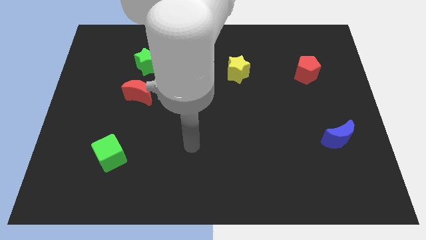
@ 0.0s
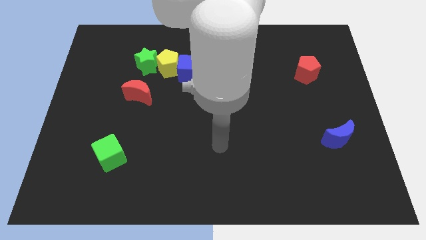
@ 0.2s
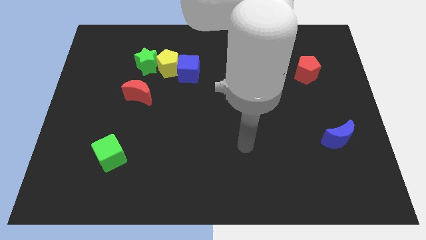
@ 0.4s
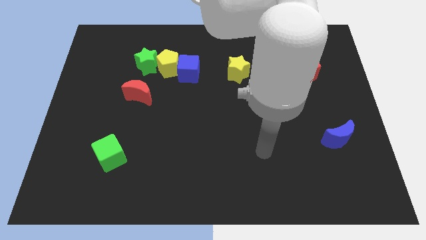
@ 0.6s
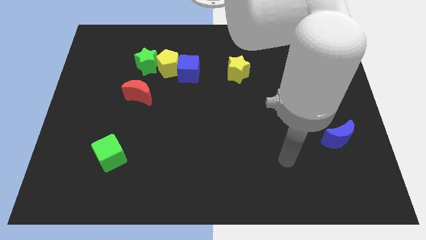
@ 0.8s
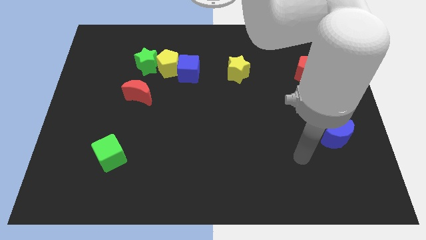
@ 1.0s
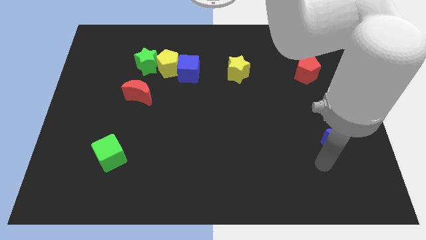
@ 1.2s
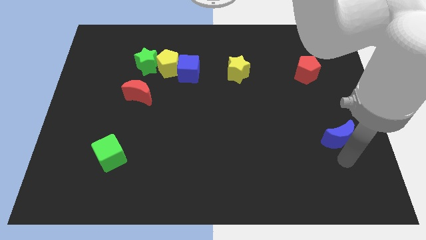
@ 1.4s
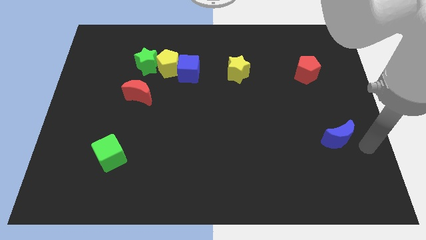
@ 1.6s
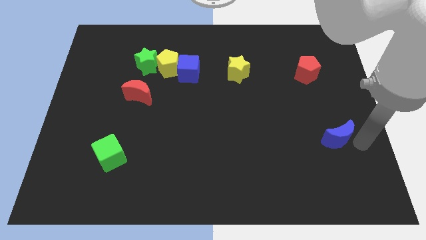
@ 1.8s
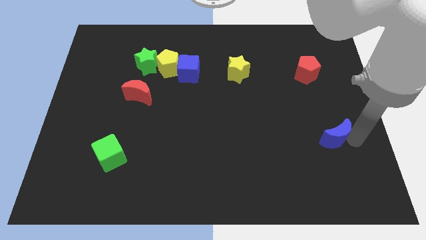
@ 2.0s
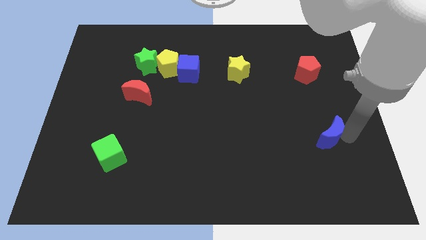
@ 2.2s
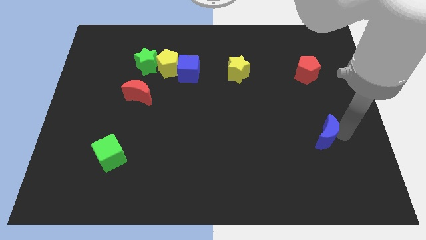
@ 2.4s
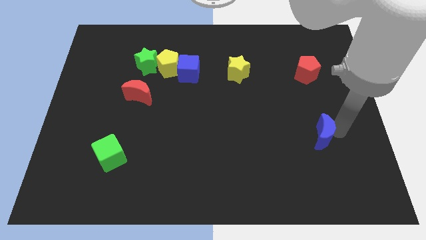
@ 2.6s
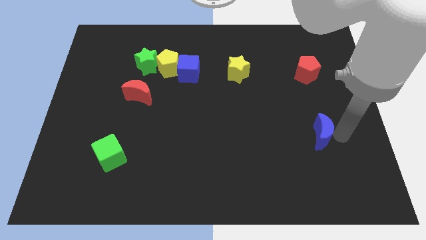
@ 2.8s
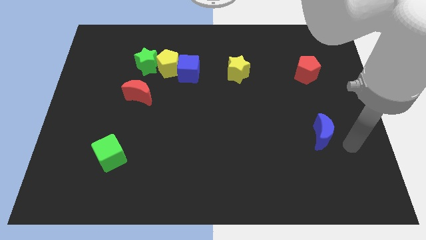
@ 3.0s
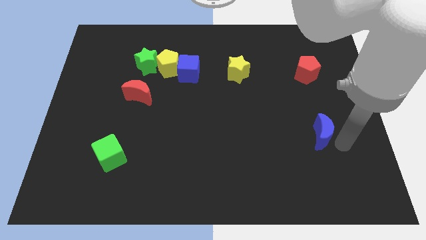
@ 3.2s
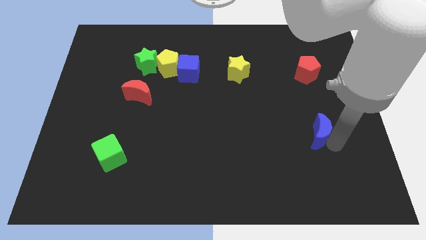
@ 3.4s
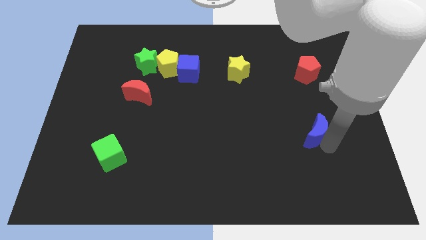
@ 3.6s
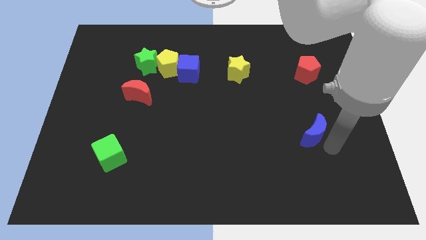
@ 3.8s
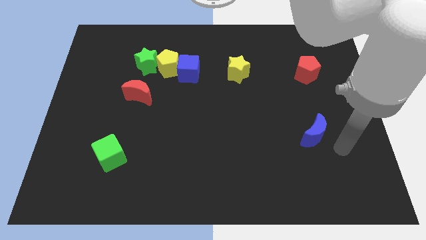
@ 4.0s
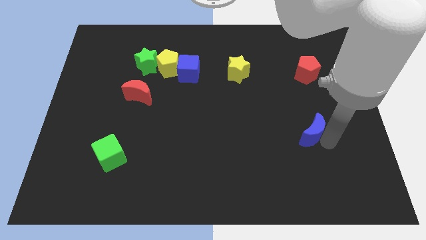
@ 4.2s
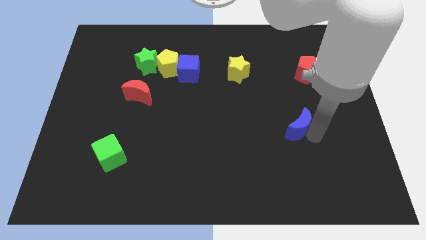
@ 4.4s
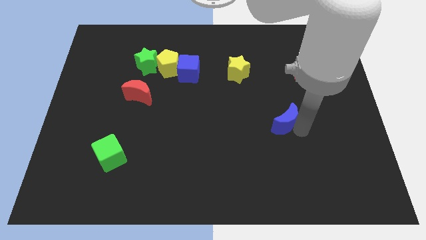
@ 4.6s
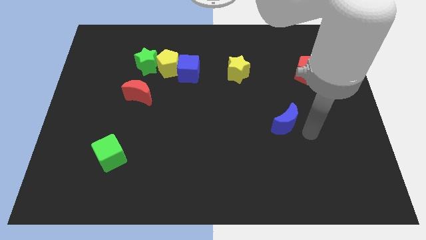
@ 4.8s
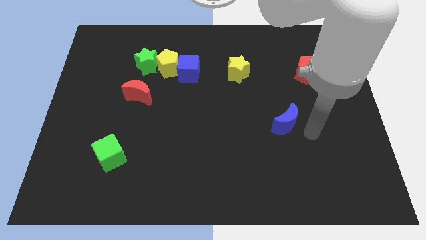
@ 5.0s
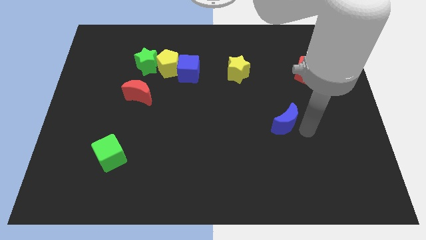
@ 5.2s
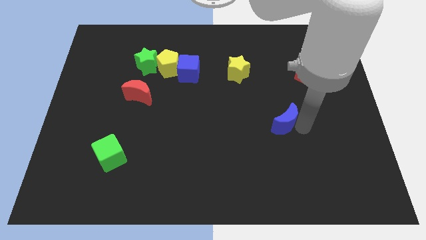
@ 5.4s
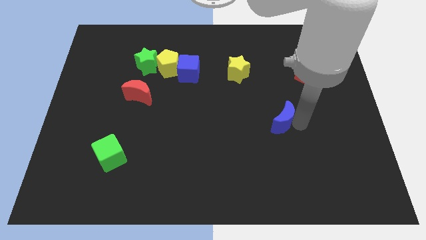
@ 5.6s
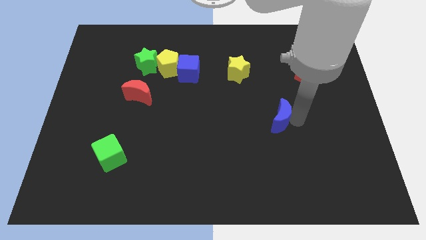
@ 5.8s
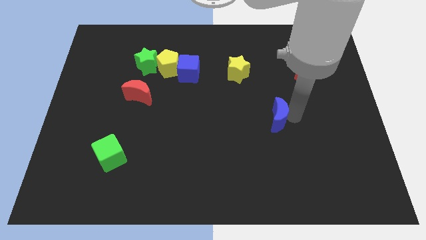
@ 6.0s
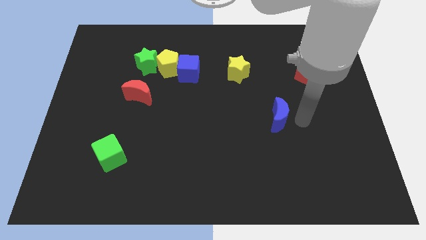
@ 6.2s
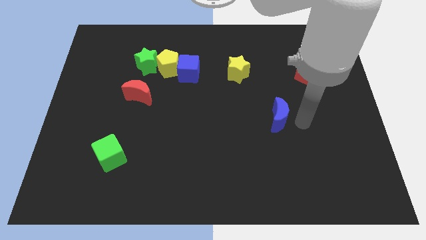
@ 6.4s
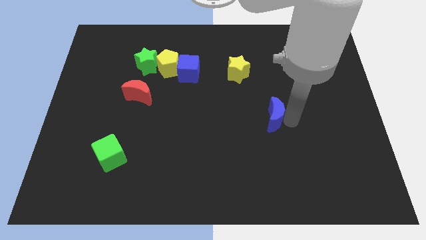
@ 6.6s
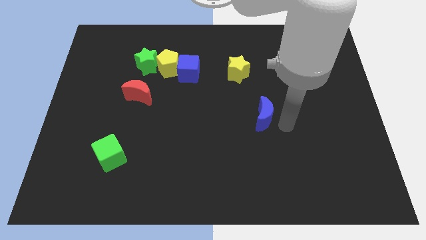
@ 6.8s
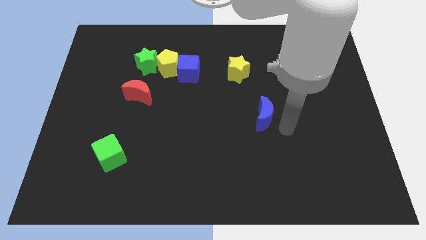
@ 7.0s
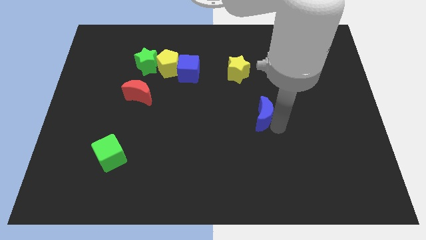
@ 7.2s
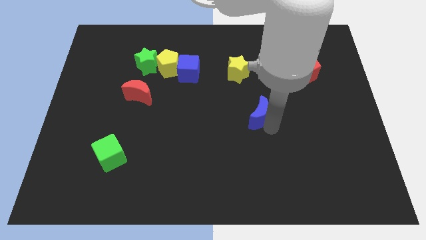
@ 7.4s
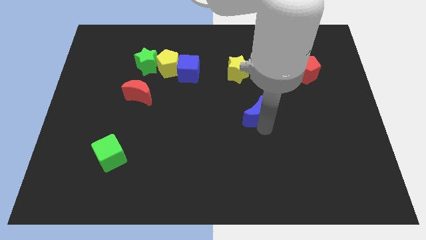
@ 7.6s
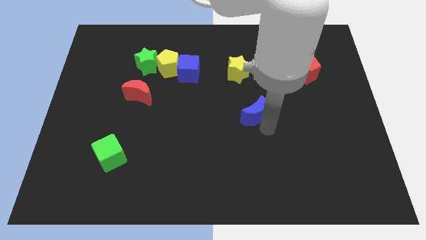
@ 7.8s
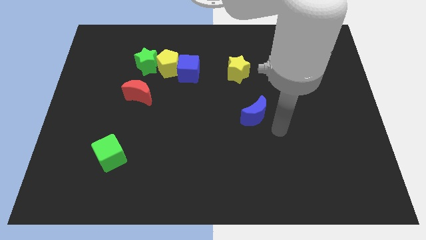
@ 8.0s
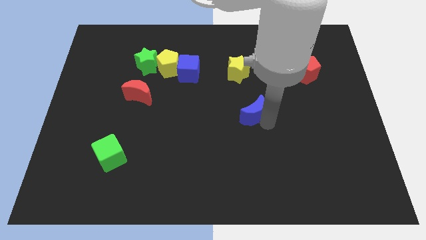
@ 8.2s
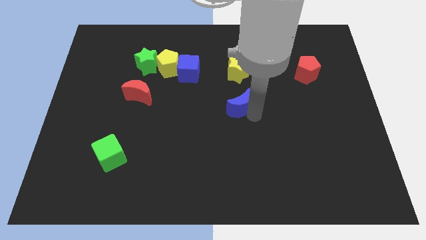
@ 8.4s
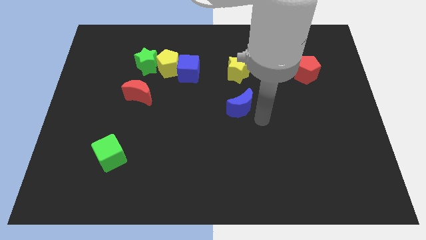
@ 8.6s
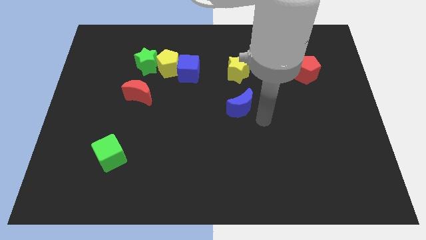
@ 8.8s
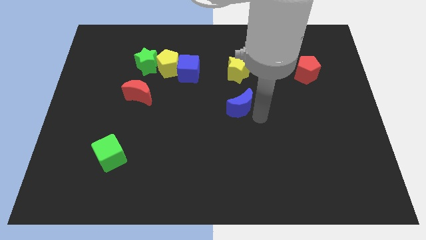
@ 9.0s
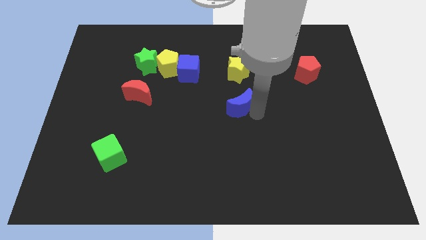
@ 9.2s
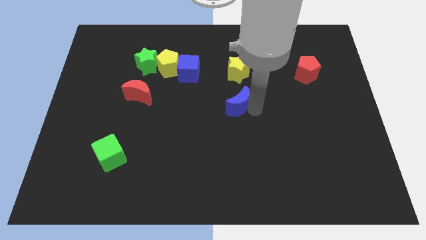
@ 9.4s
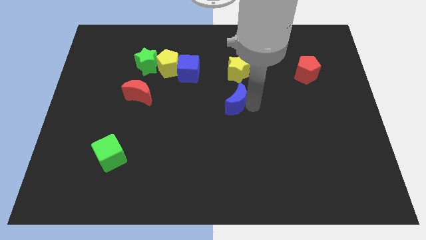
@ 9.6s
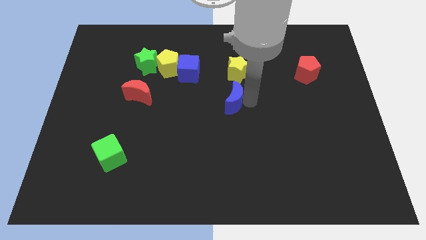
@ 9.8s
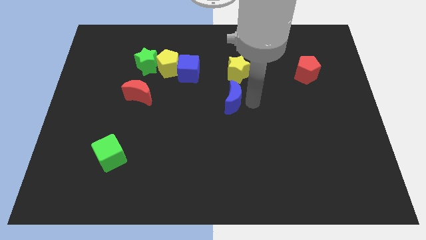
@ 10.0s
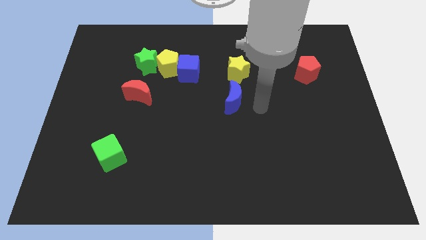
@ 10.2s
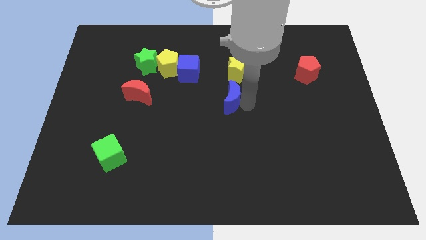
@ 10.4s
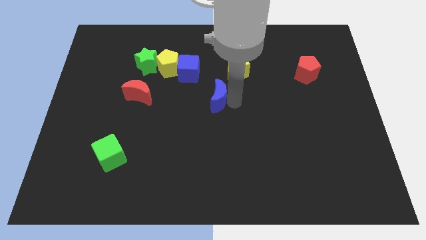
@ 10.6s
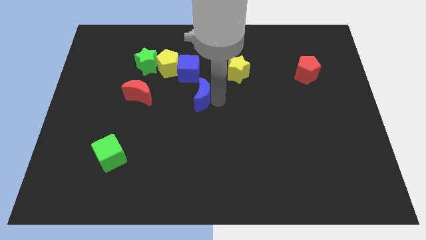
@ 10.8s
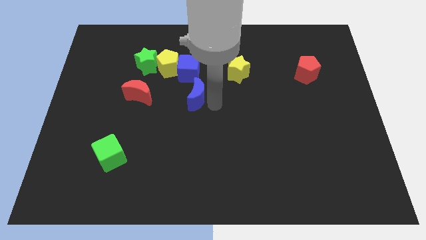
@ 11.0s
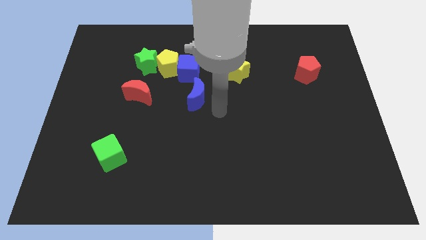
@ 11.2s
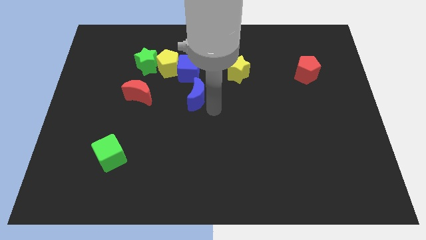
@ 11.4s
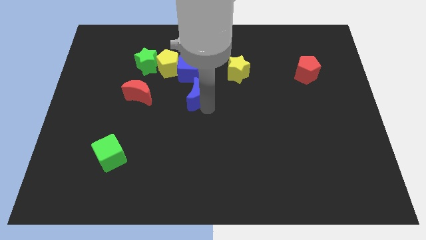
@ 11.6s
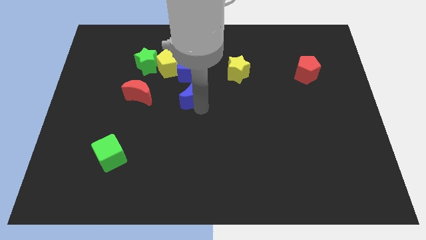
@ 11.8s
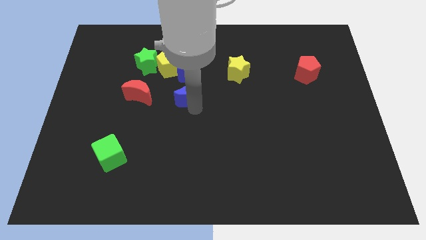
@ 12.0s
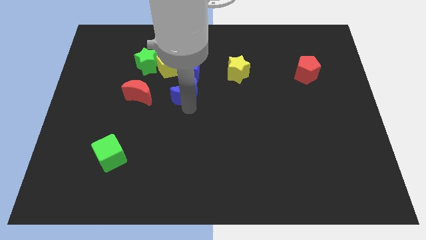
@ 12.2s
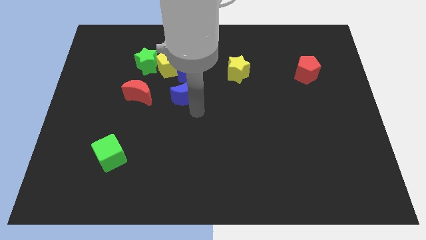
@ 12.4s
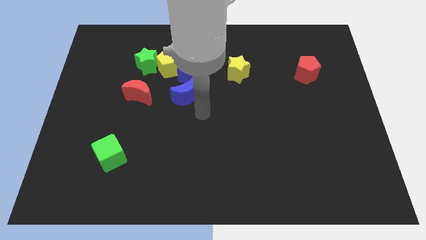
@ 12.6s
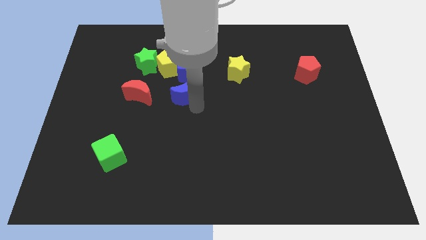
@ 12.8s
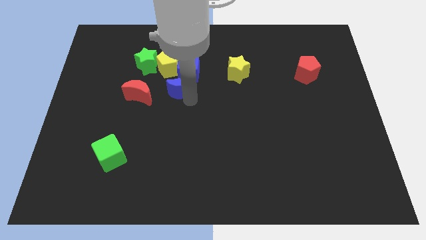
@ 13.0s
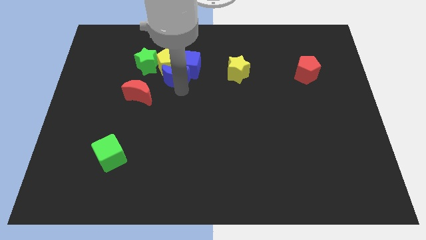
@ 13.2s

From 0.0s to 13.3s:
slide the blue moon close to the yellow pentagon

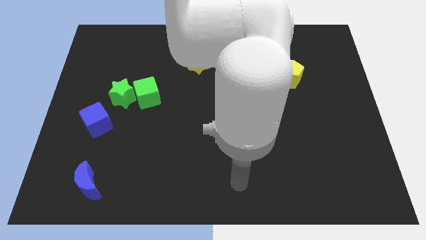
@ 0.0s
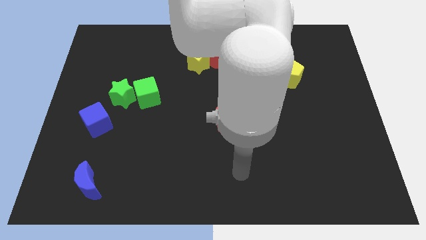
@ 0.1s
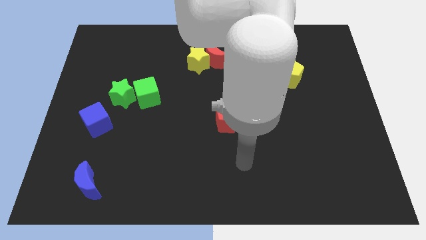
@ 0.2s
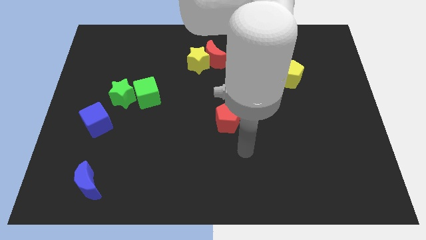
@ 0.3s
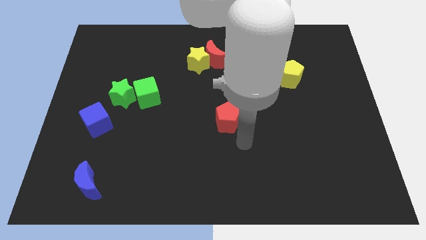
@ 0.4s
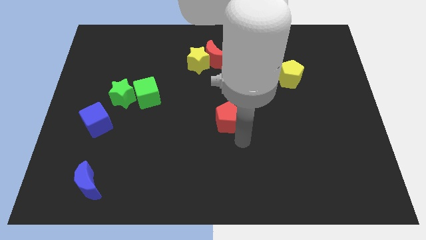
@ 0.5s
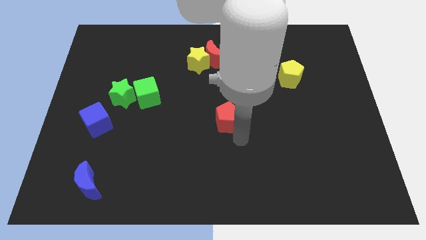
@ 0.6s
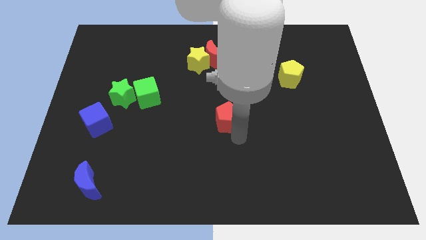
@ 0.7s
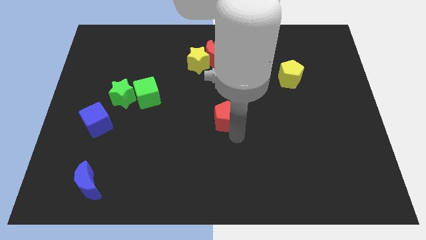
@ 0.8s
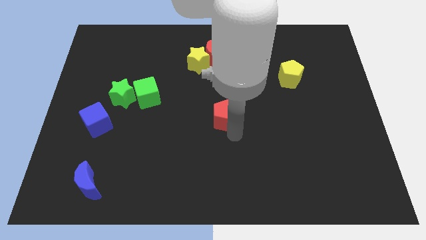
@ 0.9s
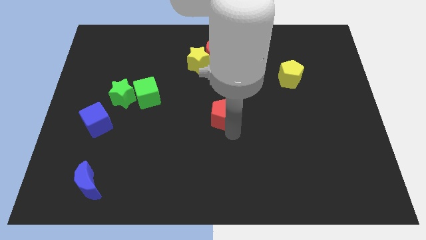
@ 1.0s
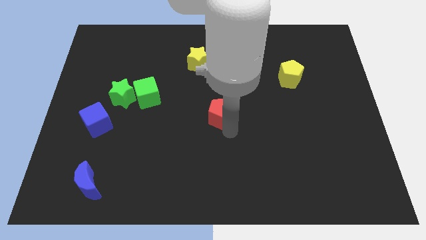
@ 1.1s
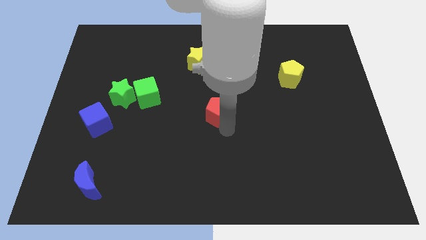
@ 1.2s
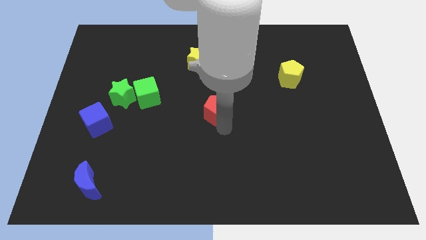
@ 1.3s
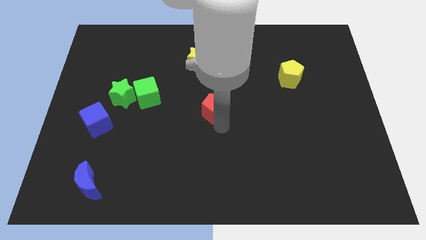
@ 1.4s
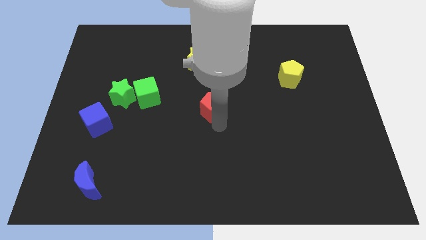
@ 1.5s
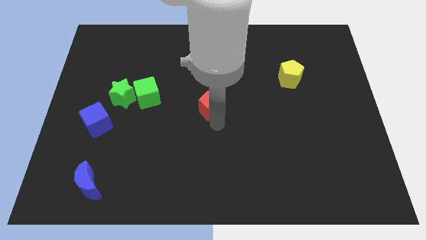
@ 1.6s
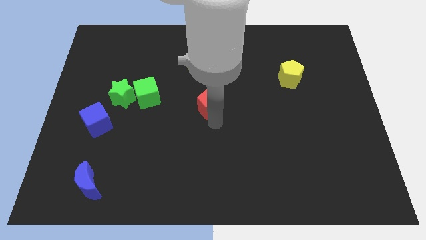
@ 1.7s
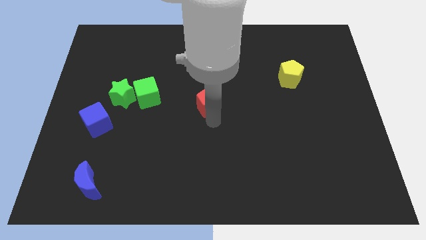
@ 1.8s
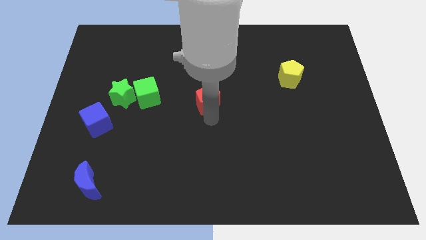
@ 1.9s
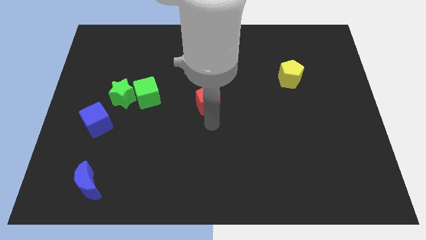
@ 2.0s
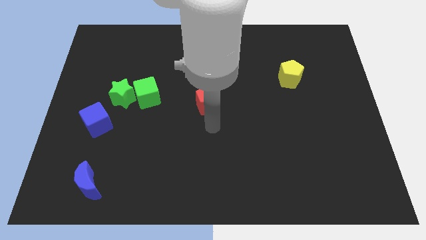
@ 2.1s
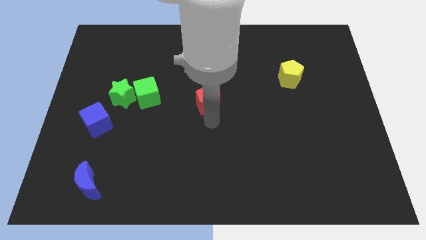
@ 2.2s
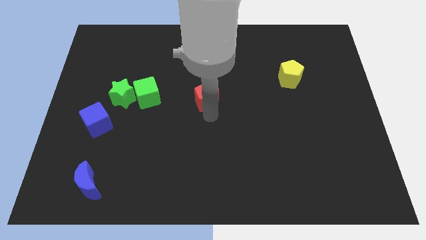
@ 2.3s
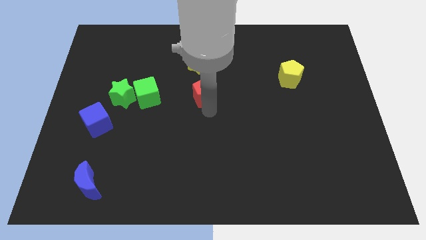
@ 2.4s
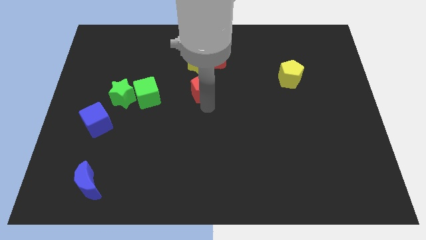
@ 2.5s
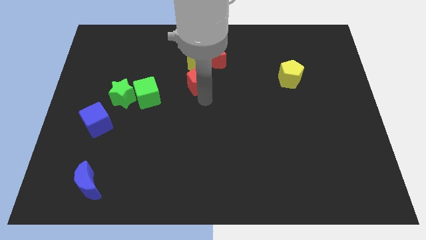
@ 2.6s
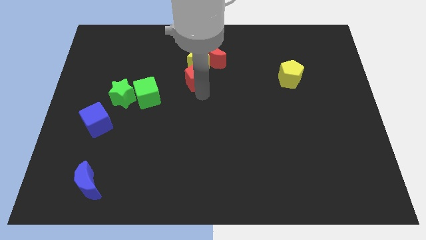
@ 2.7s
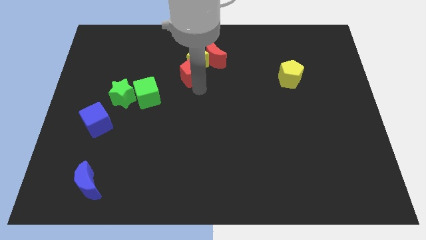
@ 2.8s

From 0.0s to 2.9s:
slide the red pentagon close to the yellow star
